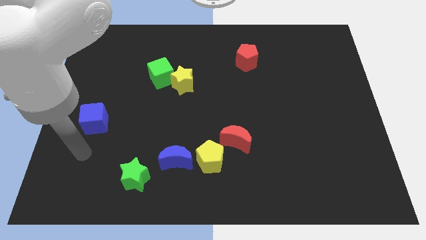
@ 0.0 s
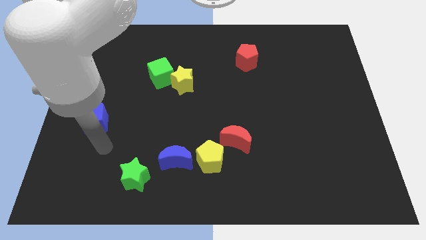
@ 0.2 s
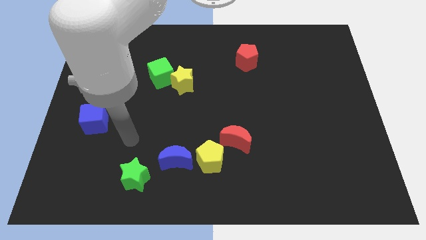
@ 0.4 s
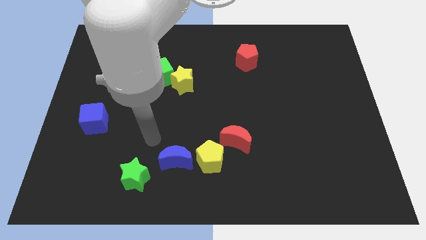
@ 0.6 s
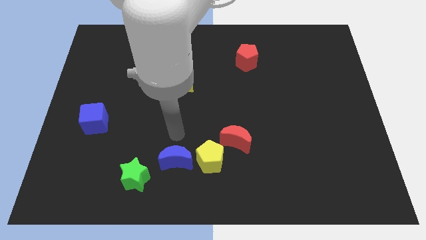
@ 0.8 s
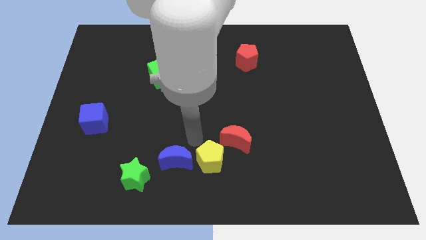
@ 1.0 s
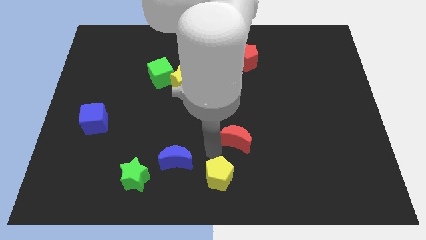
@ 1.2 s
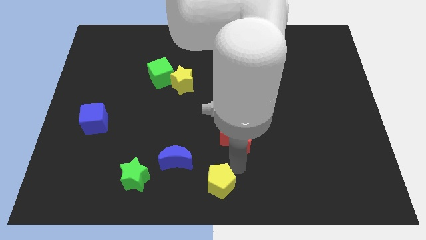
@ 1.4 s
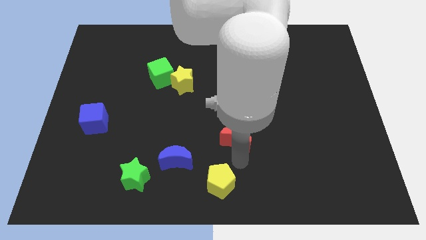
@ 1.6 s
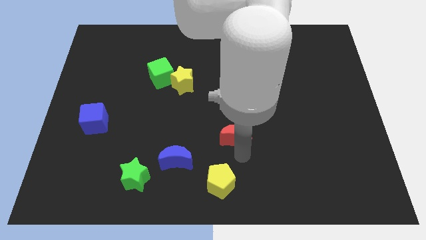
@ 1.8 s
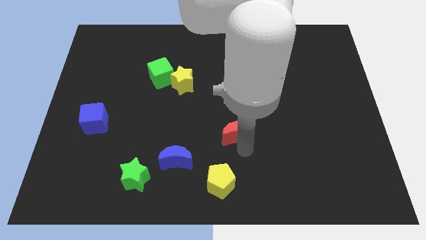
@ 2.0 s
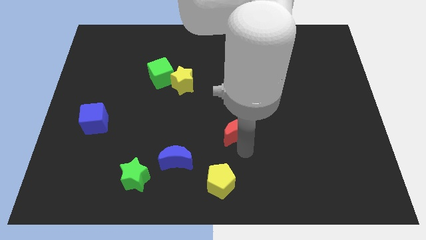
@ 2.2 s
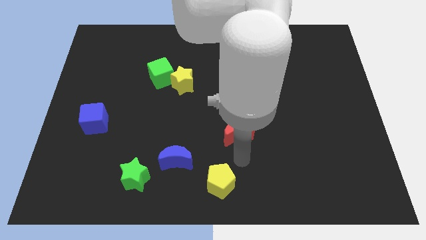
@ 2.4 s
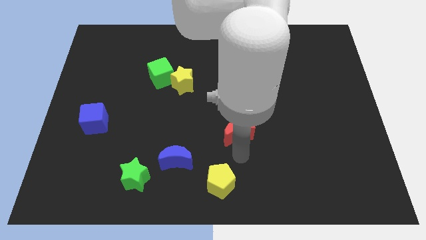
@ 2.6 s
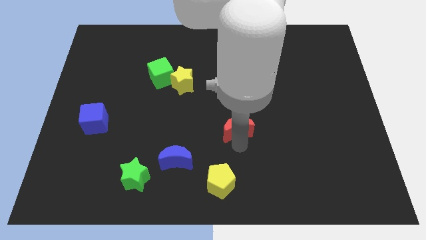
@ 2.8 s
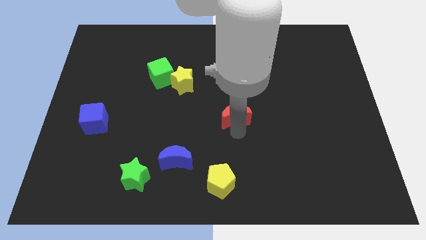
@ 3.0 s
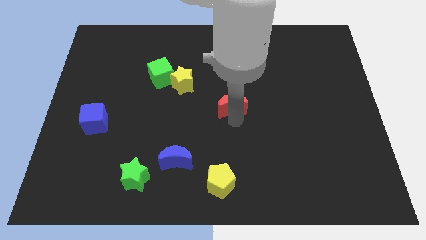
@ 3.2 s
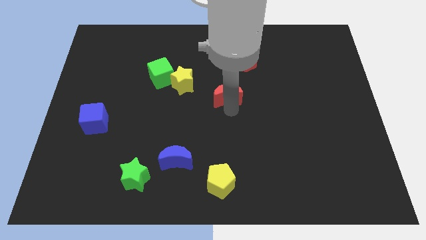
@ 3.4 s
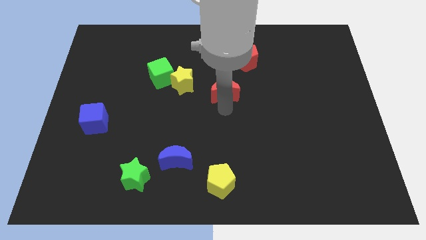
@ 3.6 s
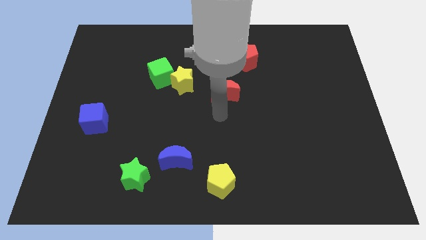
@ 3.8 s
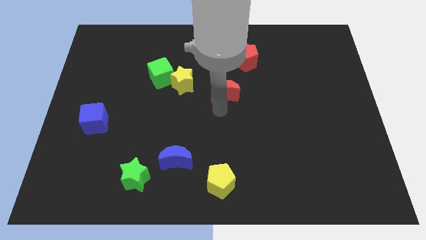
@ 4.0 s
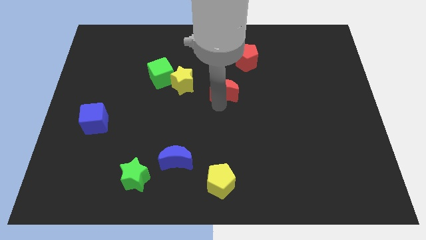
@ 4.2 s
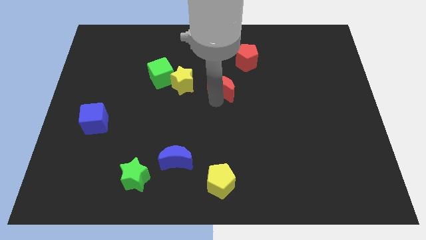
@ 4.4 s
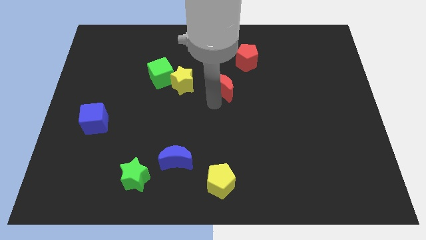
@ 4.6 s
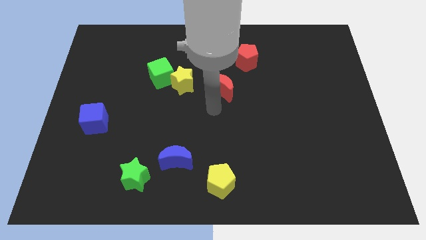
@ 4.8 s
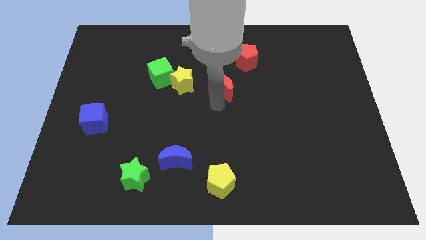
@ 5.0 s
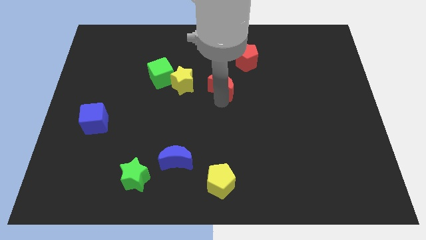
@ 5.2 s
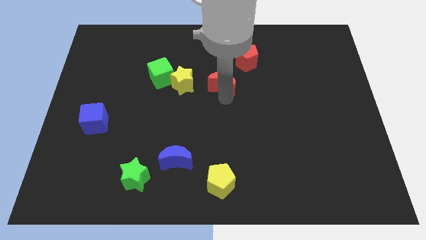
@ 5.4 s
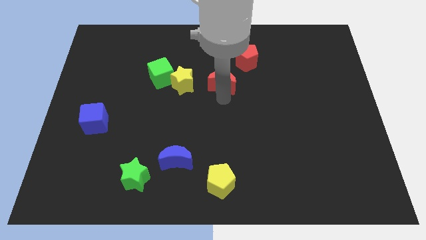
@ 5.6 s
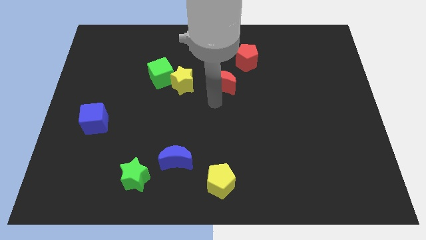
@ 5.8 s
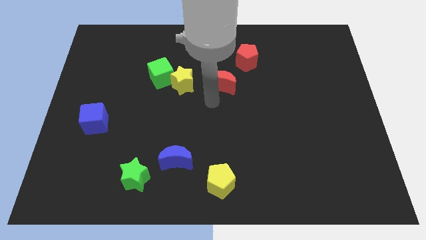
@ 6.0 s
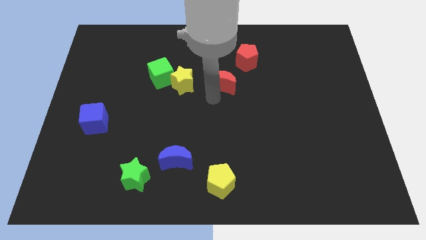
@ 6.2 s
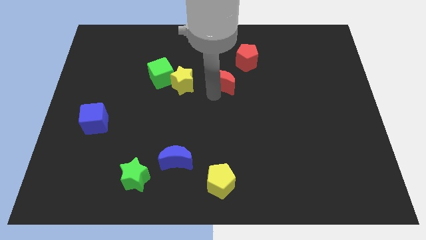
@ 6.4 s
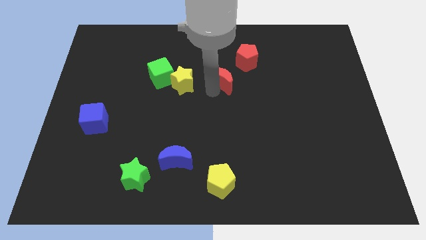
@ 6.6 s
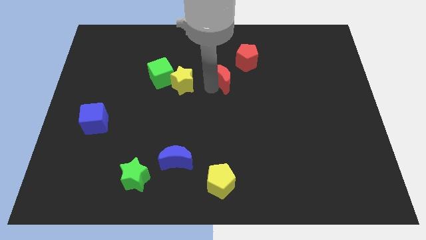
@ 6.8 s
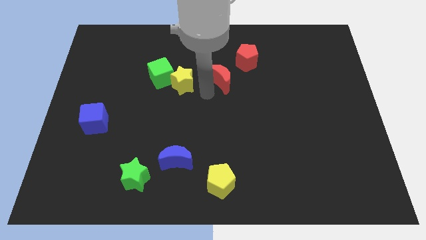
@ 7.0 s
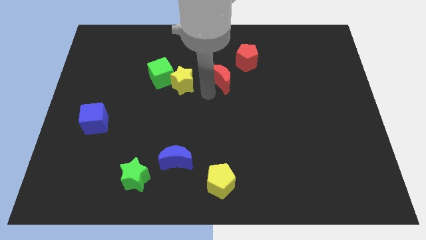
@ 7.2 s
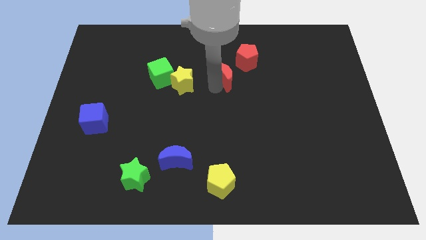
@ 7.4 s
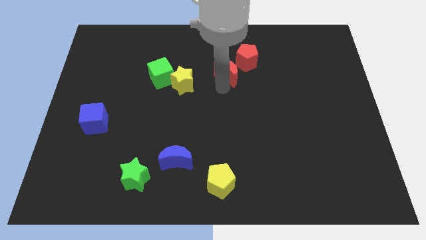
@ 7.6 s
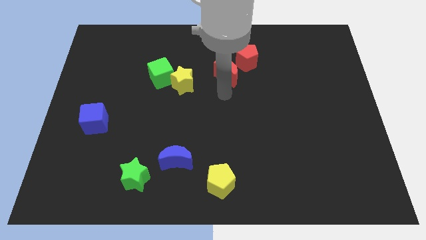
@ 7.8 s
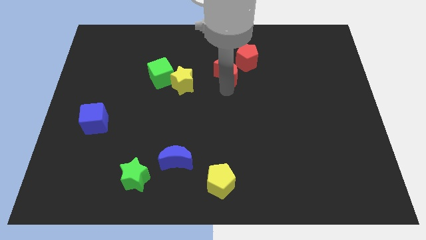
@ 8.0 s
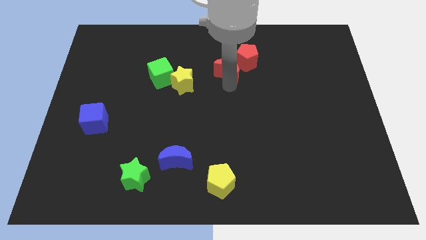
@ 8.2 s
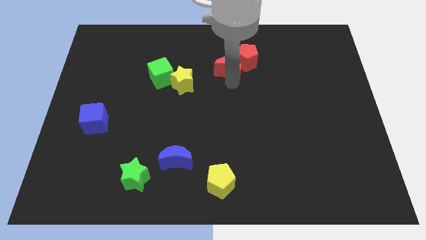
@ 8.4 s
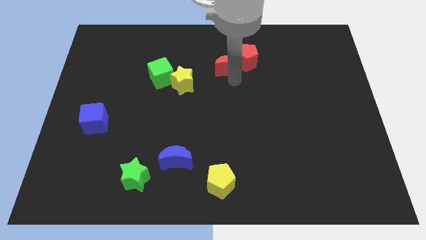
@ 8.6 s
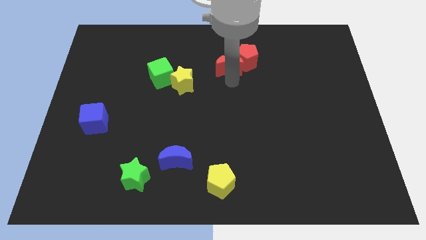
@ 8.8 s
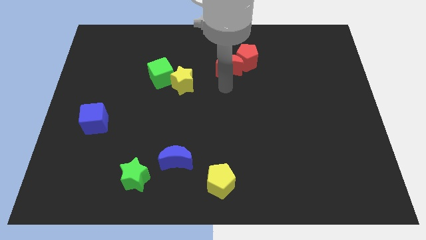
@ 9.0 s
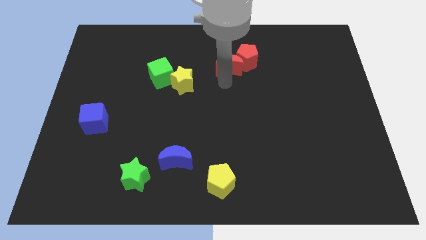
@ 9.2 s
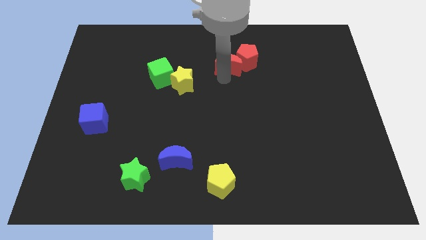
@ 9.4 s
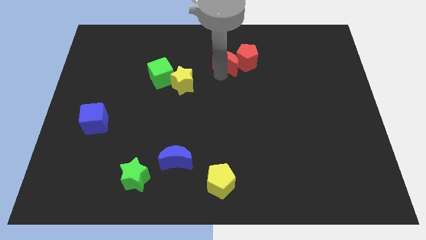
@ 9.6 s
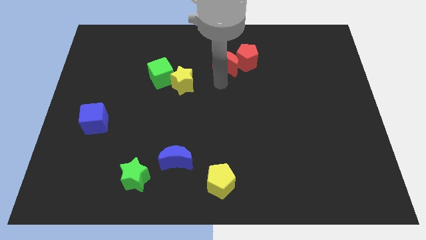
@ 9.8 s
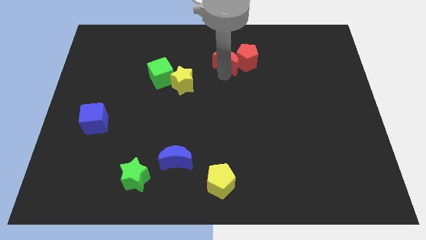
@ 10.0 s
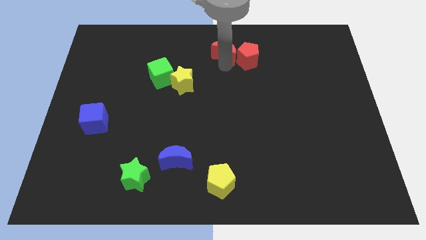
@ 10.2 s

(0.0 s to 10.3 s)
put the red moon to the top

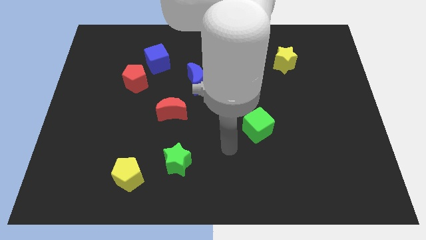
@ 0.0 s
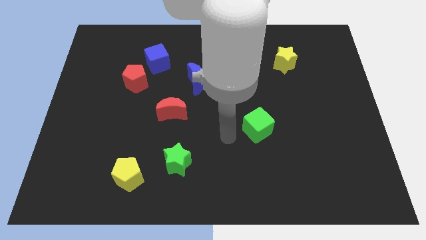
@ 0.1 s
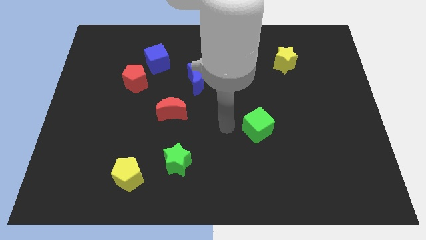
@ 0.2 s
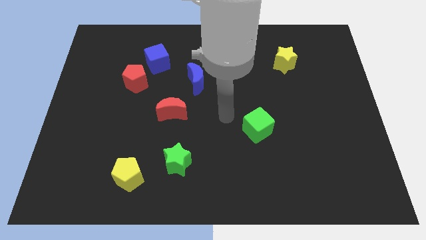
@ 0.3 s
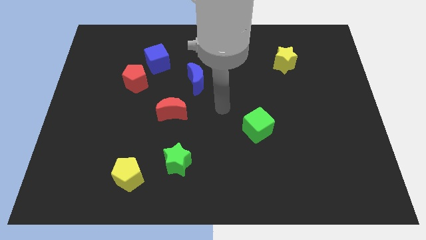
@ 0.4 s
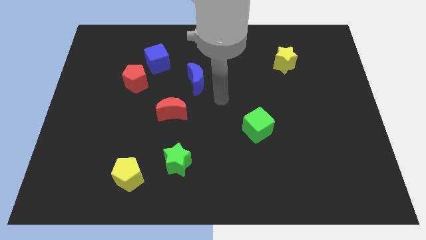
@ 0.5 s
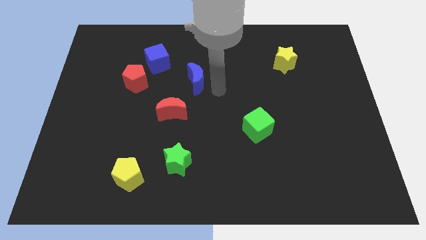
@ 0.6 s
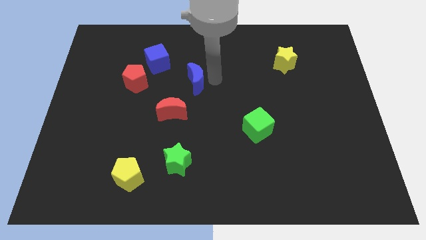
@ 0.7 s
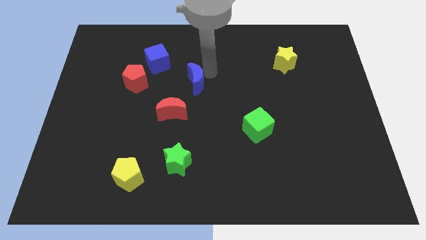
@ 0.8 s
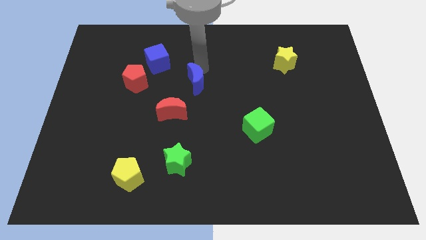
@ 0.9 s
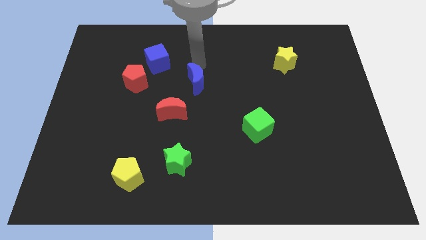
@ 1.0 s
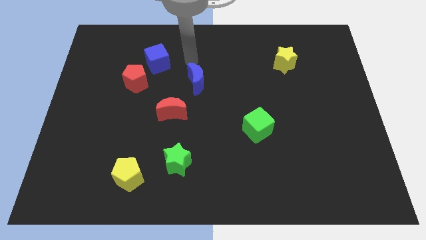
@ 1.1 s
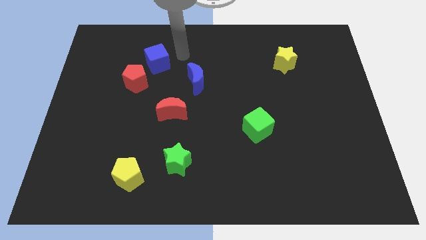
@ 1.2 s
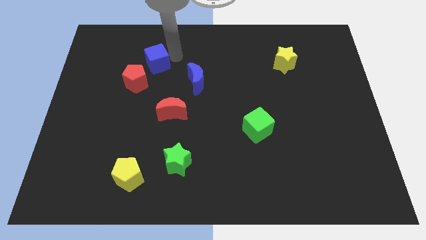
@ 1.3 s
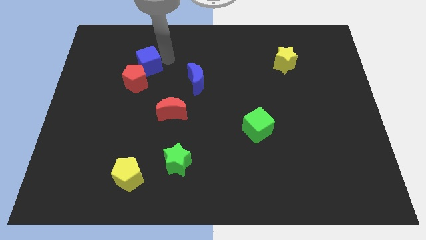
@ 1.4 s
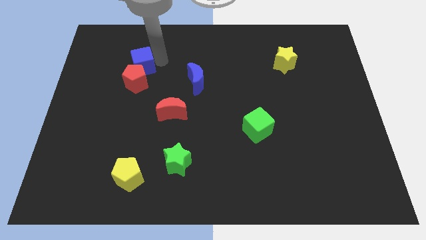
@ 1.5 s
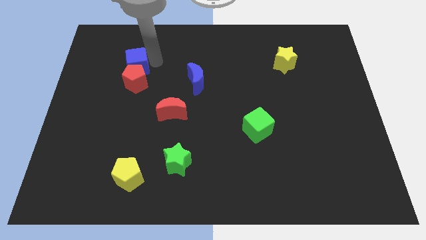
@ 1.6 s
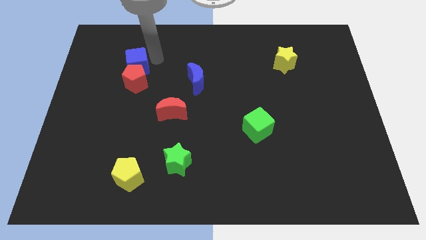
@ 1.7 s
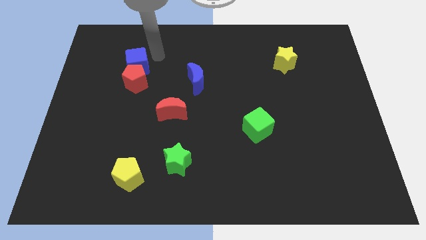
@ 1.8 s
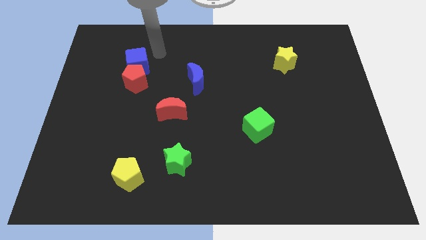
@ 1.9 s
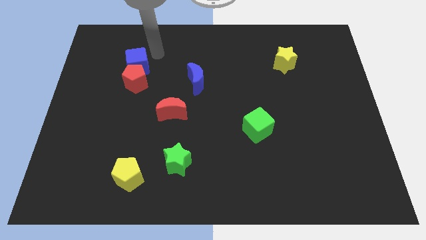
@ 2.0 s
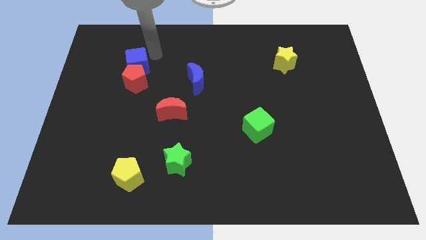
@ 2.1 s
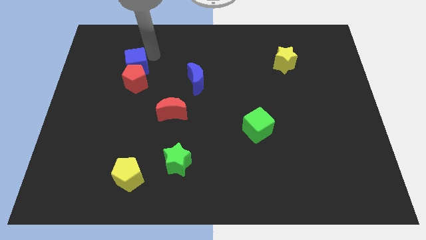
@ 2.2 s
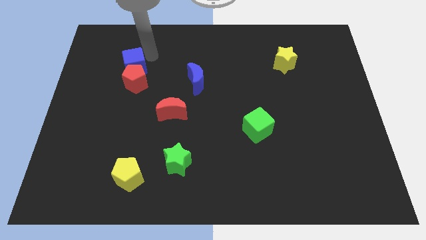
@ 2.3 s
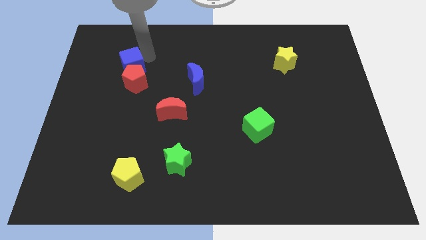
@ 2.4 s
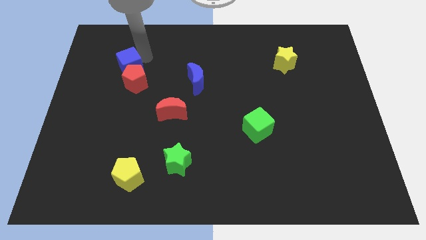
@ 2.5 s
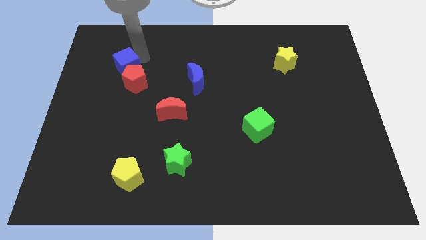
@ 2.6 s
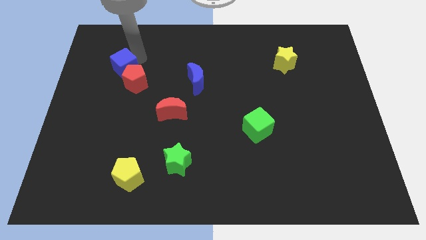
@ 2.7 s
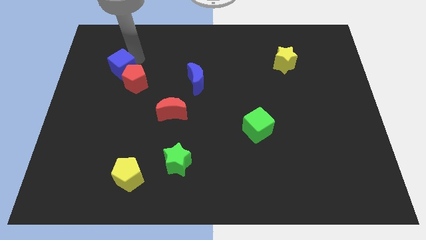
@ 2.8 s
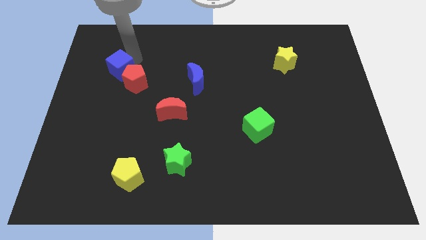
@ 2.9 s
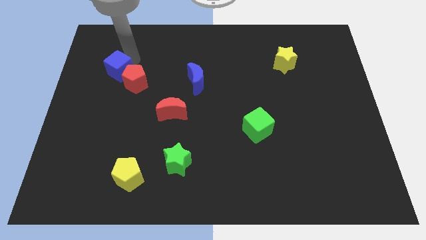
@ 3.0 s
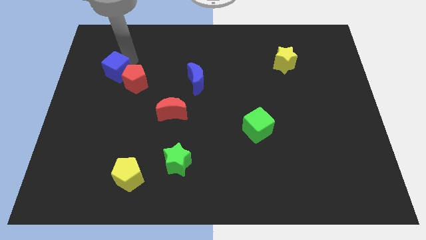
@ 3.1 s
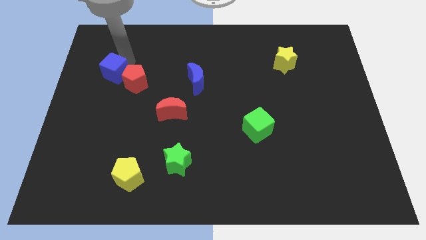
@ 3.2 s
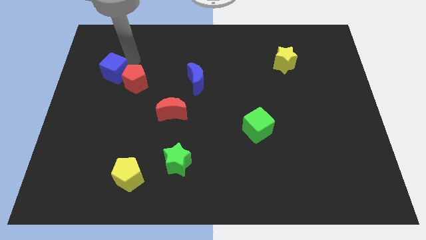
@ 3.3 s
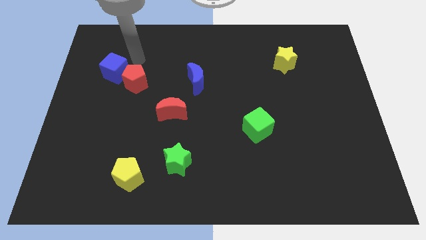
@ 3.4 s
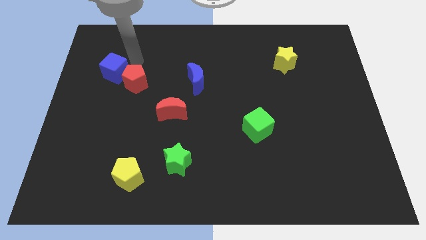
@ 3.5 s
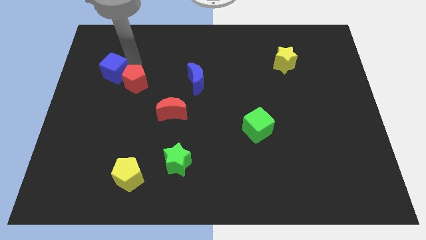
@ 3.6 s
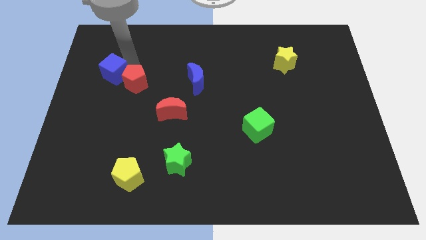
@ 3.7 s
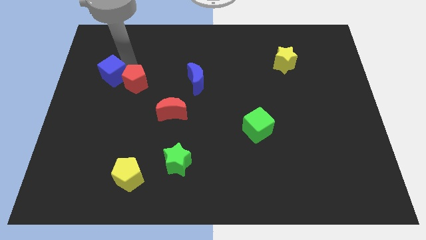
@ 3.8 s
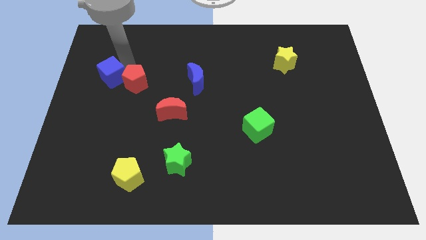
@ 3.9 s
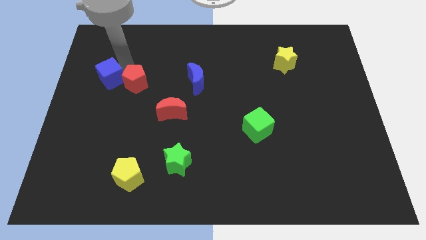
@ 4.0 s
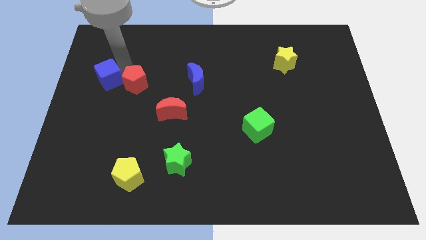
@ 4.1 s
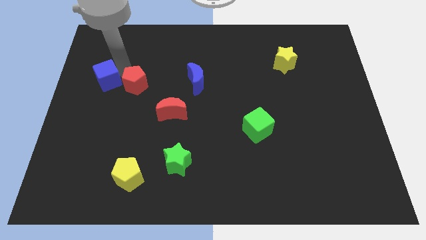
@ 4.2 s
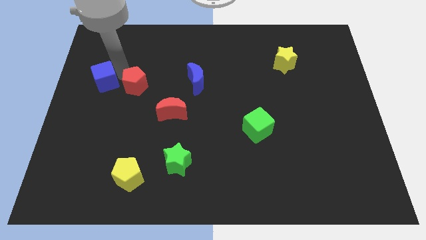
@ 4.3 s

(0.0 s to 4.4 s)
move the blue cube to the center left
